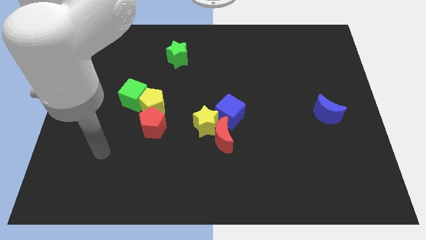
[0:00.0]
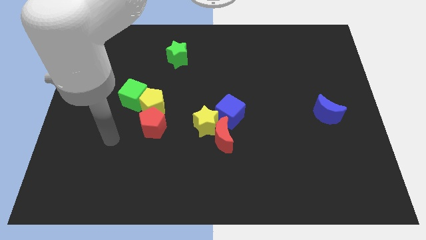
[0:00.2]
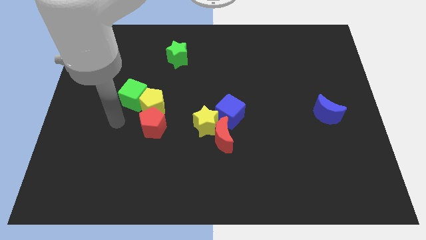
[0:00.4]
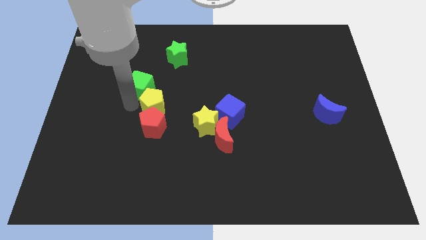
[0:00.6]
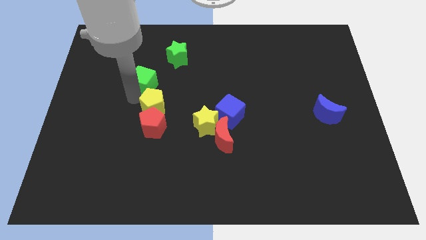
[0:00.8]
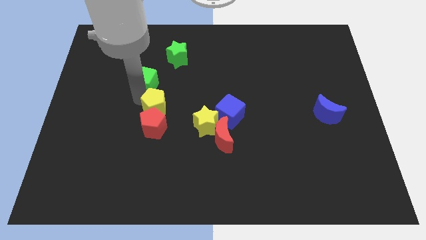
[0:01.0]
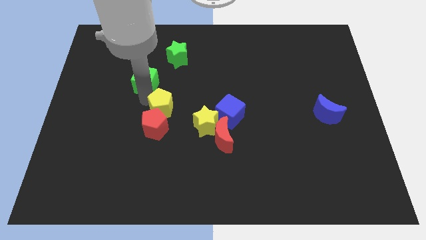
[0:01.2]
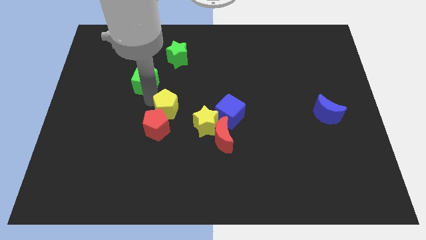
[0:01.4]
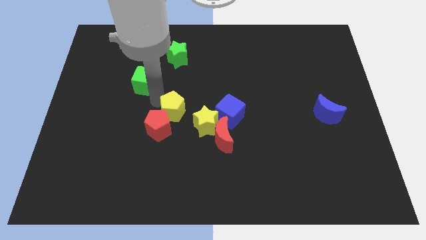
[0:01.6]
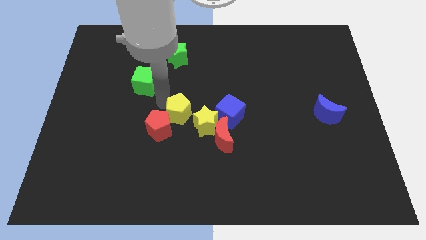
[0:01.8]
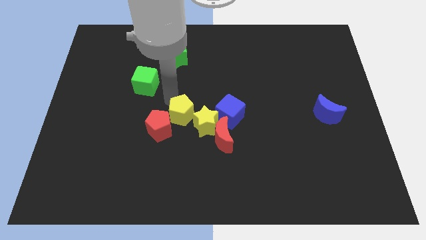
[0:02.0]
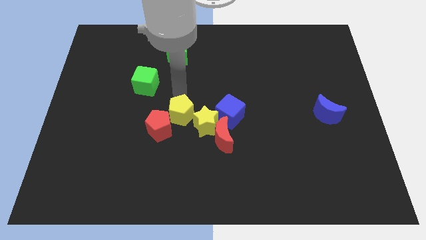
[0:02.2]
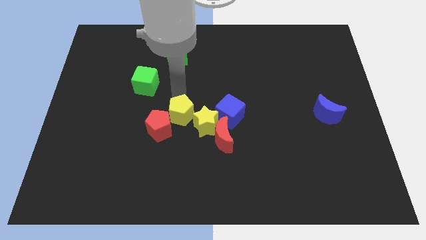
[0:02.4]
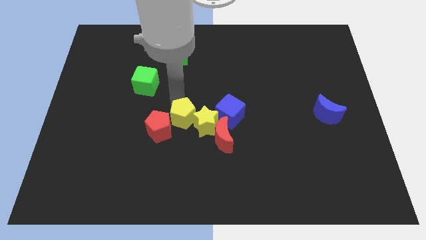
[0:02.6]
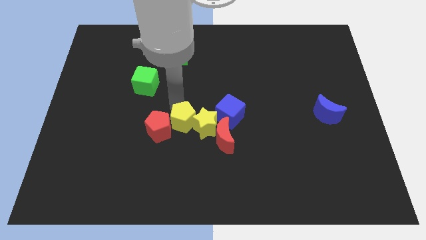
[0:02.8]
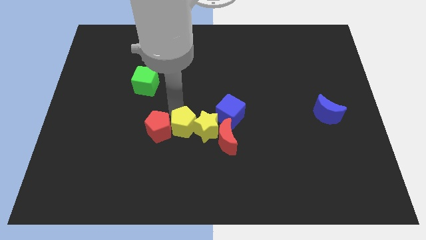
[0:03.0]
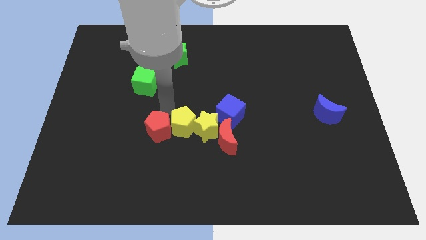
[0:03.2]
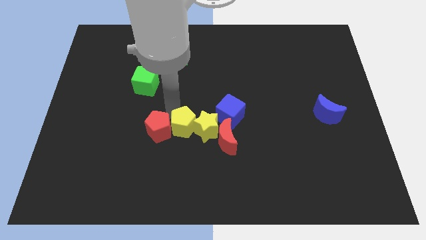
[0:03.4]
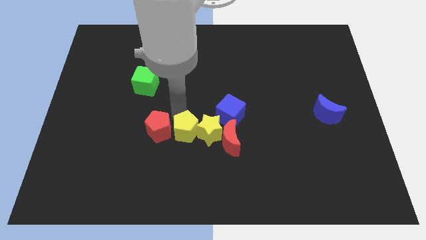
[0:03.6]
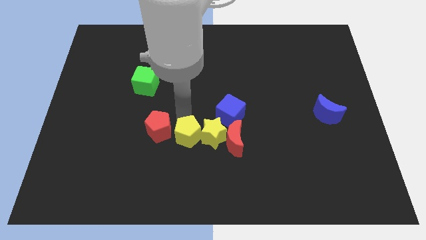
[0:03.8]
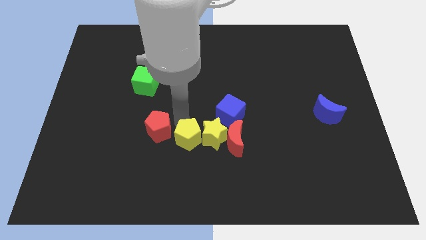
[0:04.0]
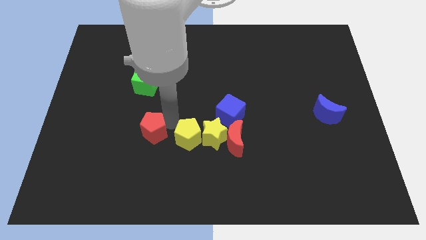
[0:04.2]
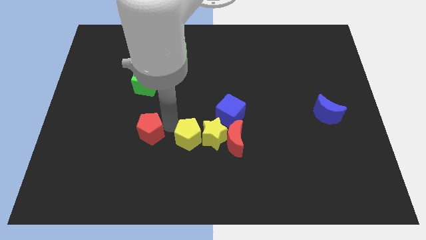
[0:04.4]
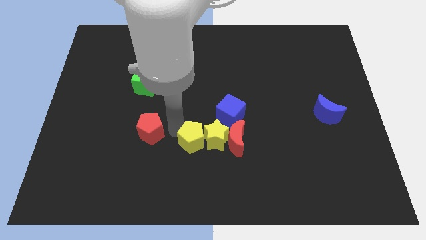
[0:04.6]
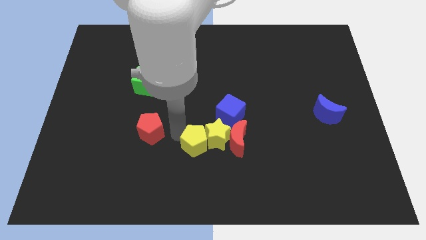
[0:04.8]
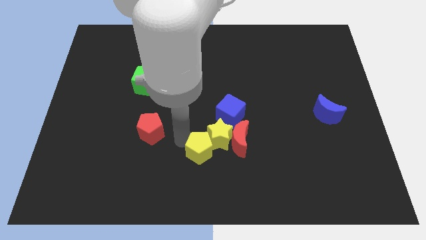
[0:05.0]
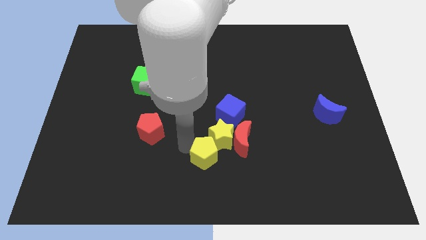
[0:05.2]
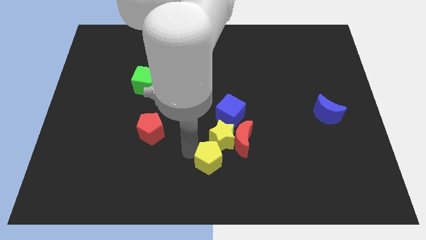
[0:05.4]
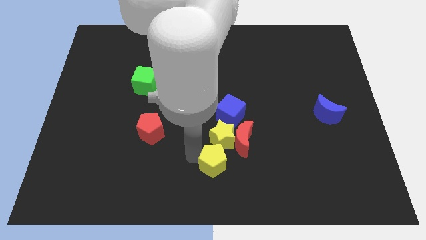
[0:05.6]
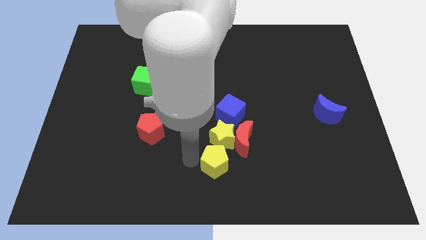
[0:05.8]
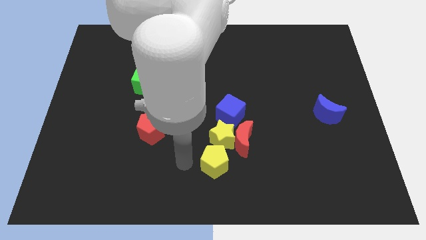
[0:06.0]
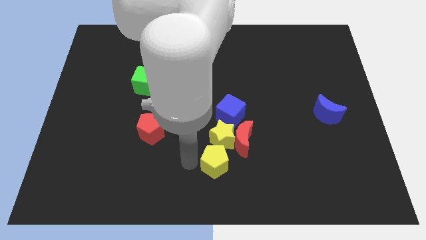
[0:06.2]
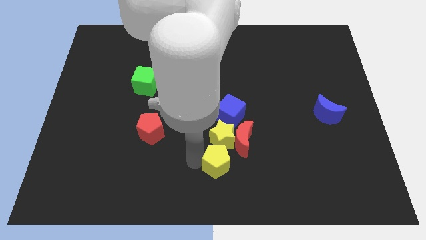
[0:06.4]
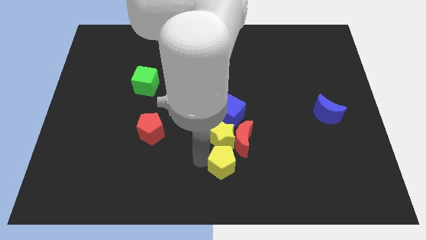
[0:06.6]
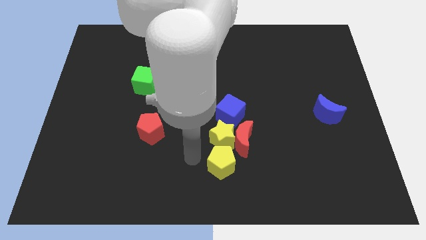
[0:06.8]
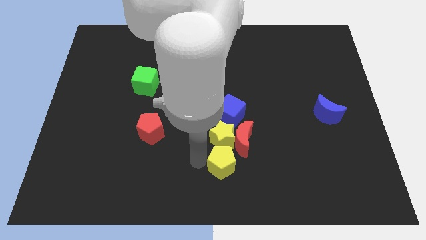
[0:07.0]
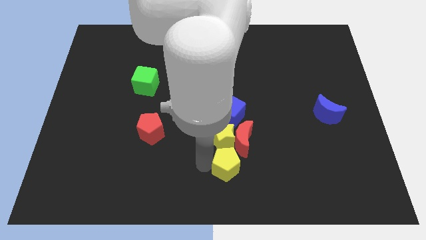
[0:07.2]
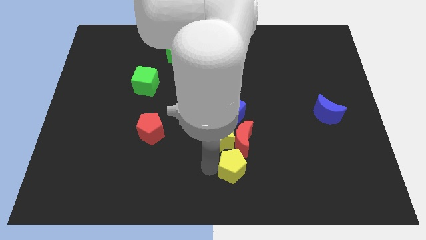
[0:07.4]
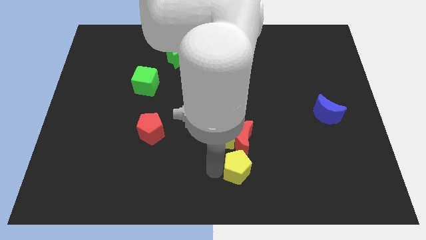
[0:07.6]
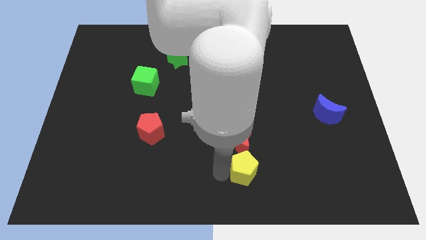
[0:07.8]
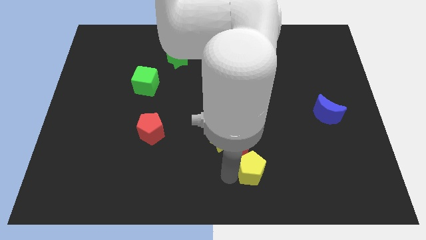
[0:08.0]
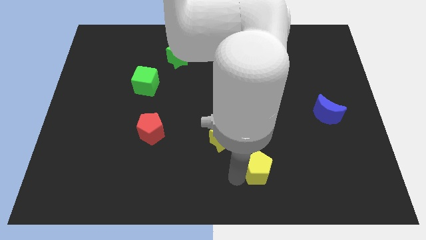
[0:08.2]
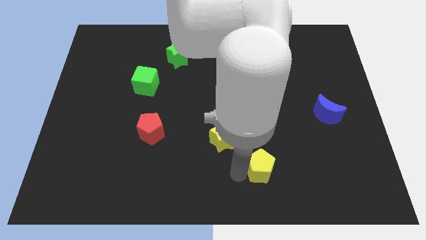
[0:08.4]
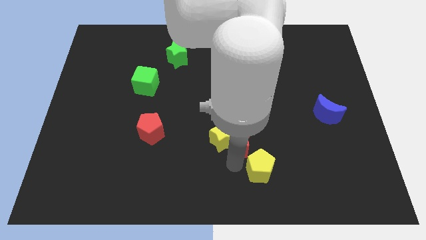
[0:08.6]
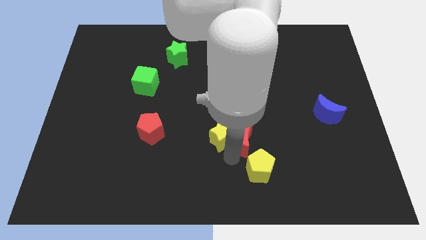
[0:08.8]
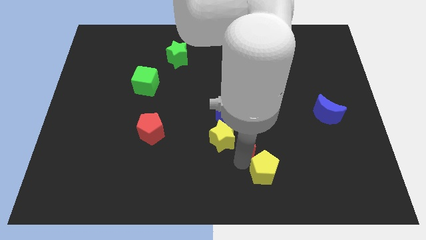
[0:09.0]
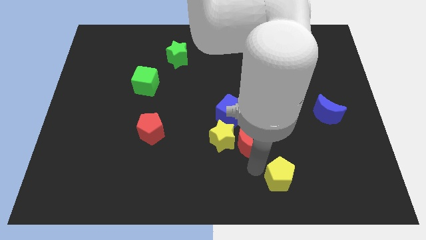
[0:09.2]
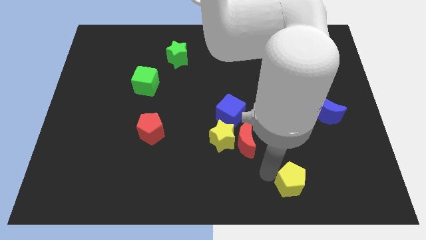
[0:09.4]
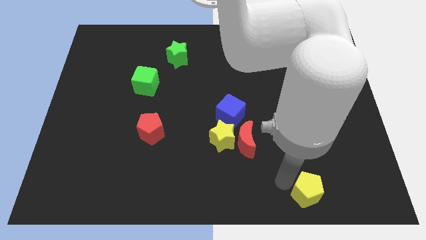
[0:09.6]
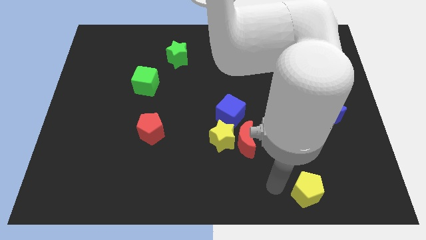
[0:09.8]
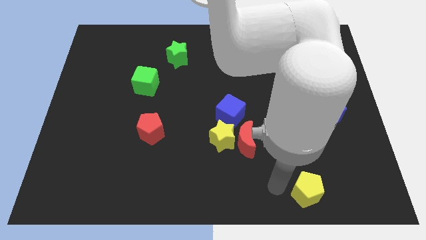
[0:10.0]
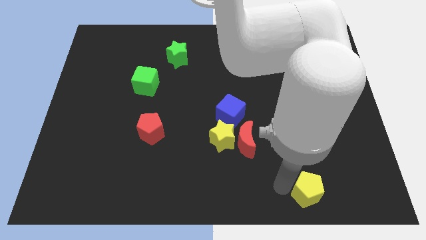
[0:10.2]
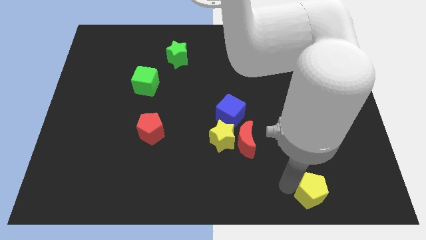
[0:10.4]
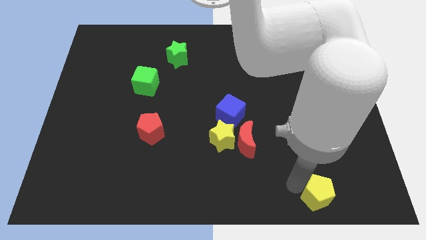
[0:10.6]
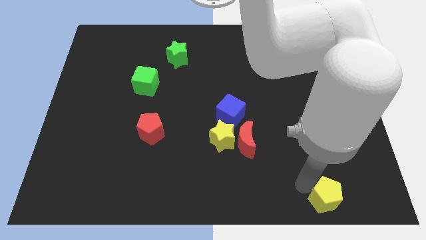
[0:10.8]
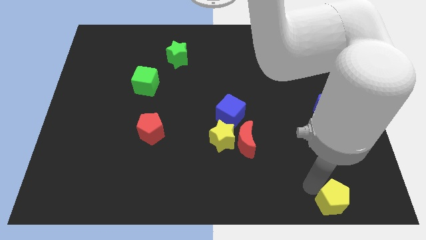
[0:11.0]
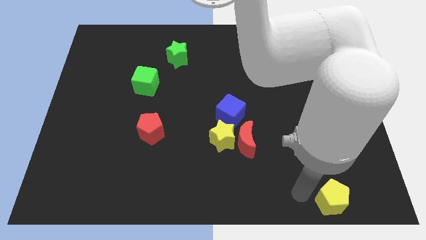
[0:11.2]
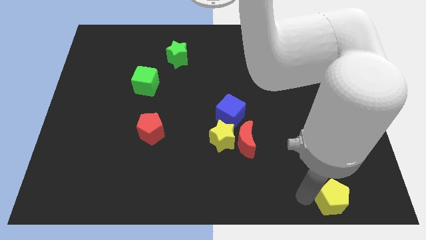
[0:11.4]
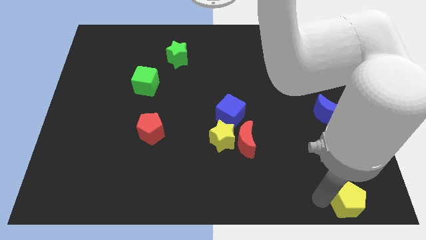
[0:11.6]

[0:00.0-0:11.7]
push the yellow pentagon to the bottom right of the board
